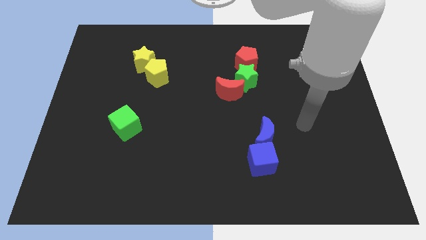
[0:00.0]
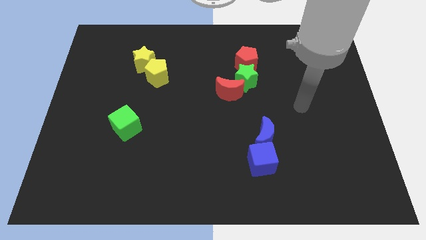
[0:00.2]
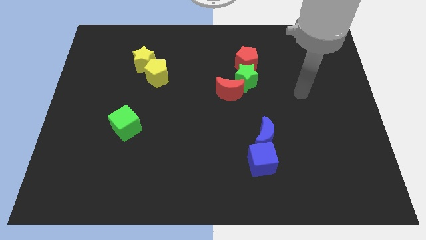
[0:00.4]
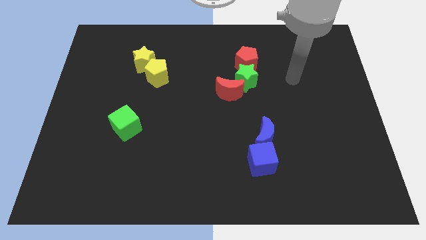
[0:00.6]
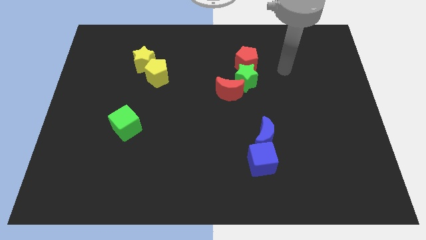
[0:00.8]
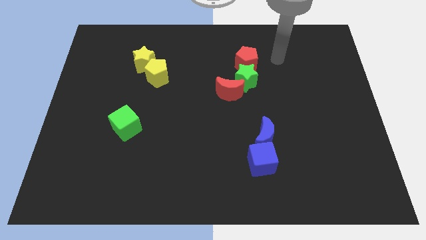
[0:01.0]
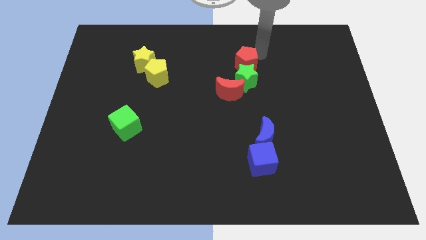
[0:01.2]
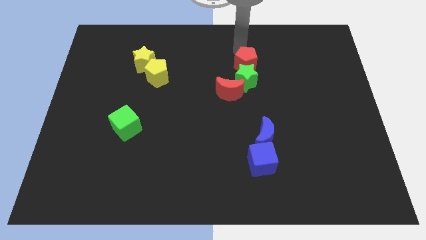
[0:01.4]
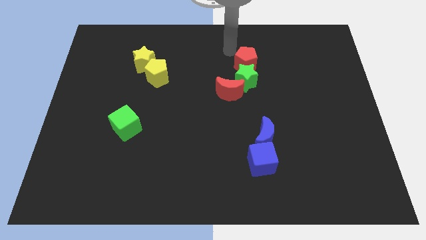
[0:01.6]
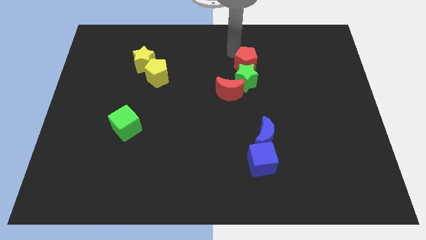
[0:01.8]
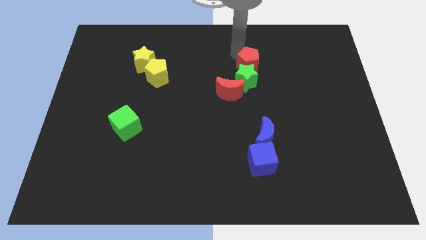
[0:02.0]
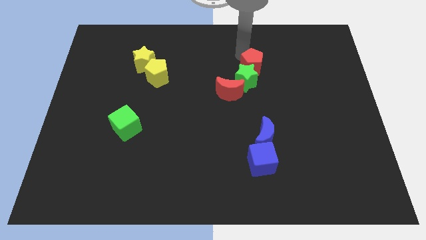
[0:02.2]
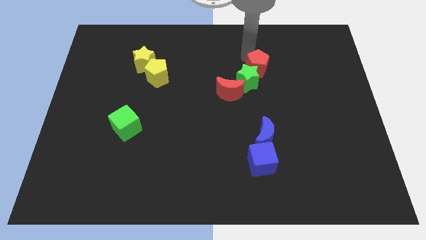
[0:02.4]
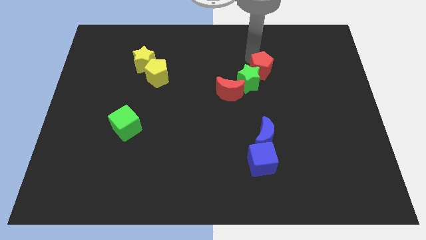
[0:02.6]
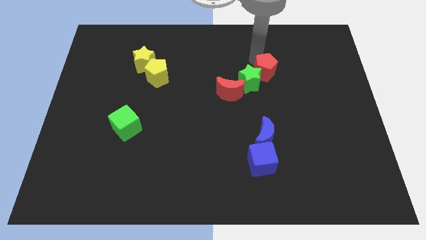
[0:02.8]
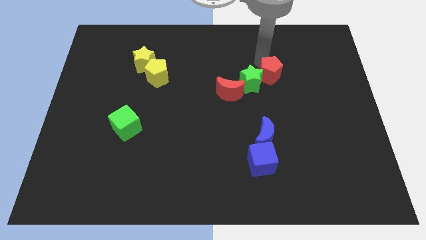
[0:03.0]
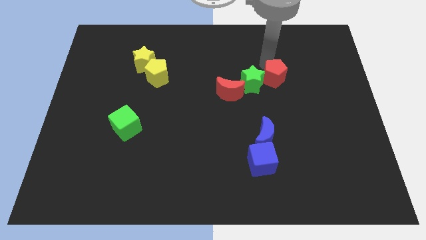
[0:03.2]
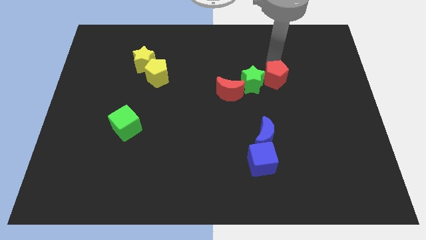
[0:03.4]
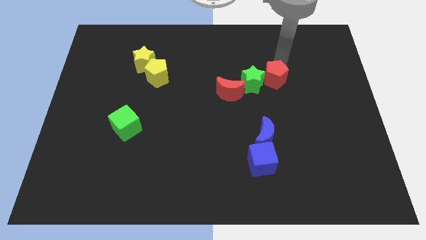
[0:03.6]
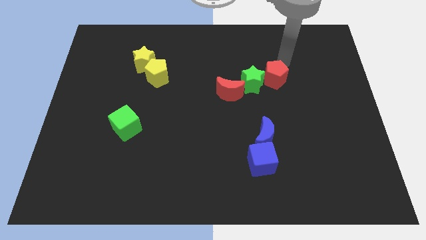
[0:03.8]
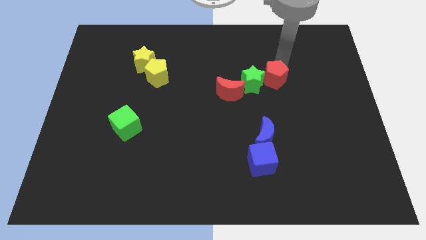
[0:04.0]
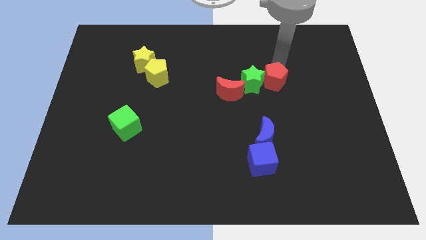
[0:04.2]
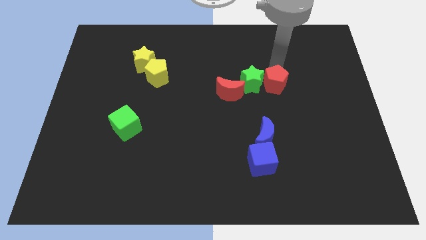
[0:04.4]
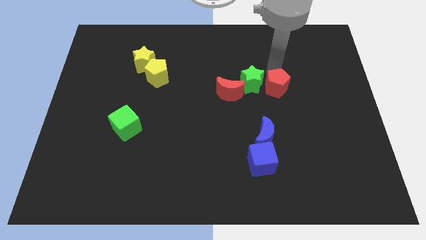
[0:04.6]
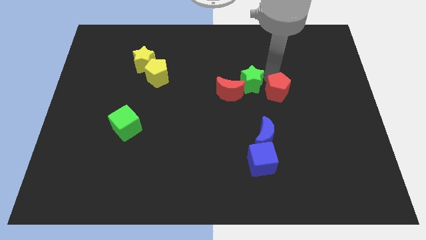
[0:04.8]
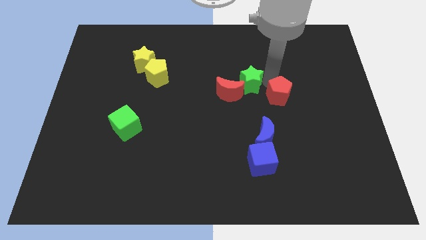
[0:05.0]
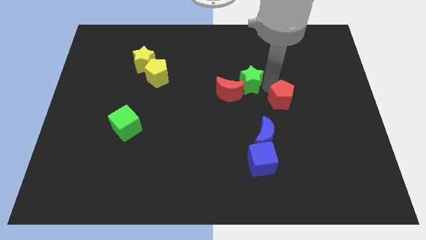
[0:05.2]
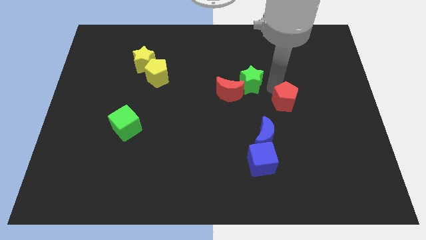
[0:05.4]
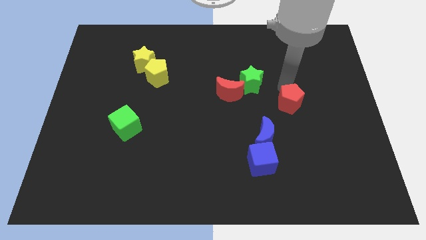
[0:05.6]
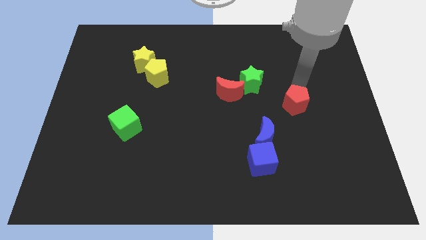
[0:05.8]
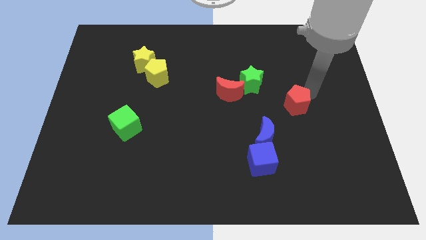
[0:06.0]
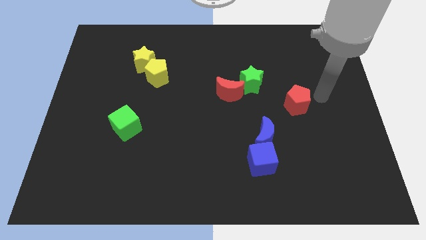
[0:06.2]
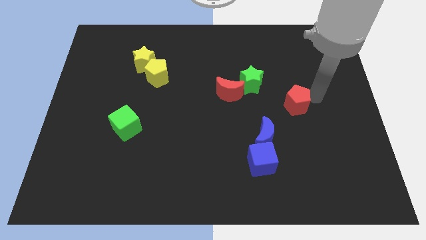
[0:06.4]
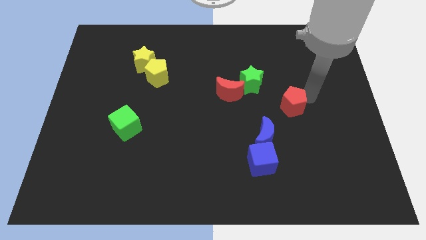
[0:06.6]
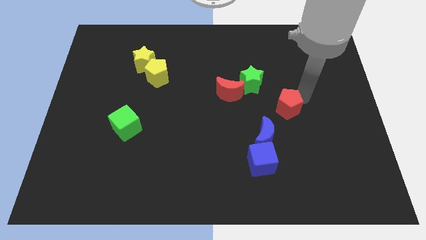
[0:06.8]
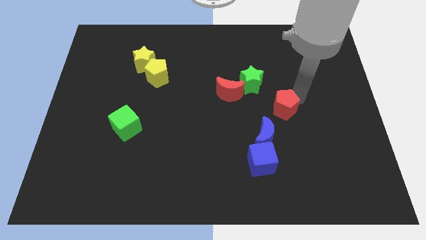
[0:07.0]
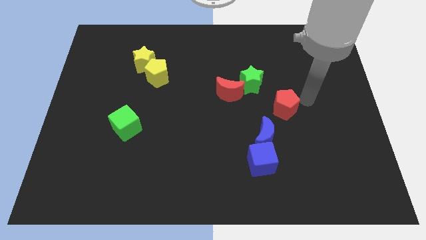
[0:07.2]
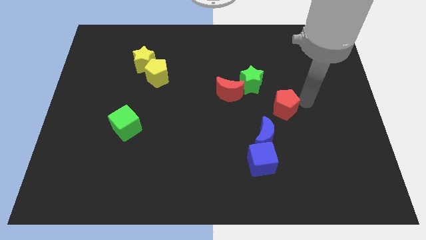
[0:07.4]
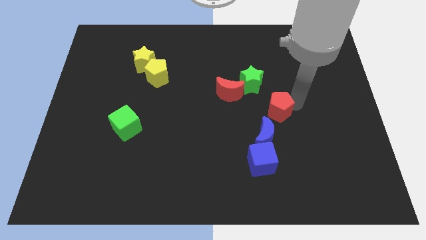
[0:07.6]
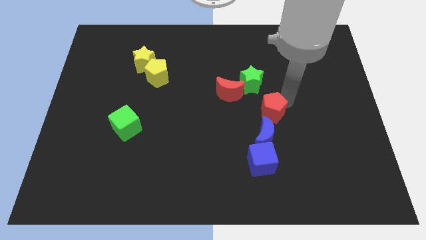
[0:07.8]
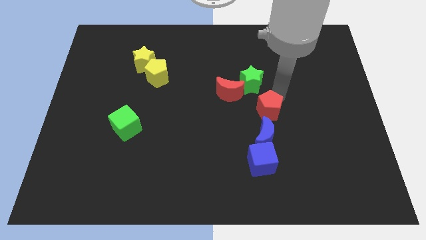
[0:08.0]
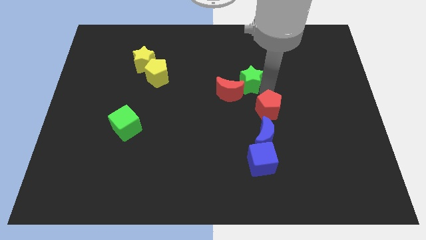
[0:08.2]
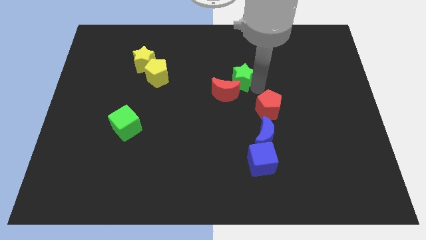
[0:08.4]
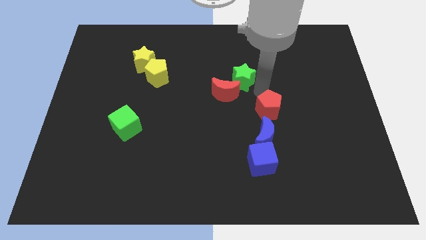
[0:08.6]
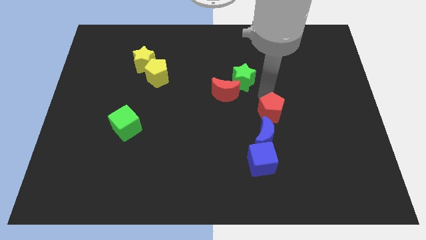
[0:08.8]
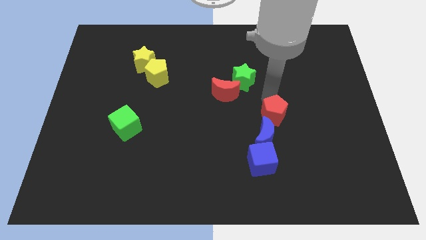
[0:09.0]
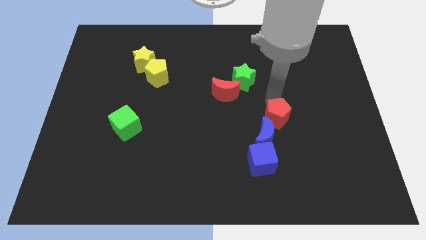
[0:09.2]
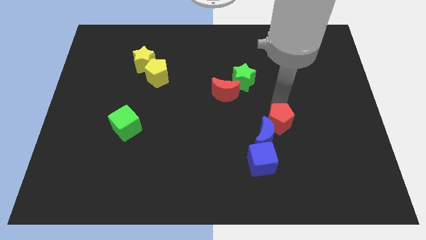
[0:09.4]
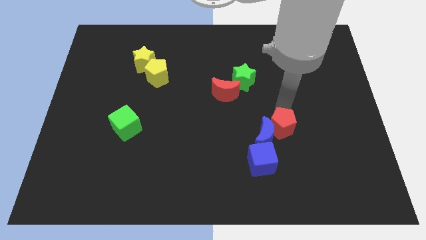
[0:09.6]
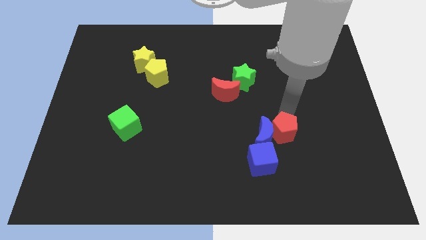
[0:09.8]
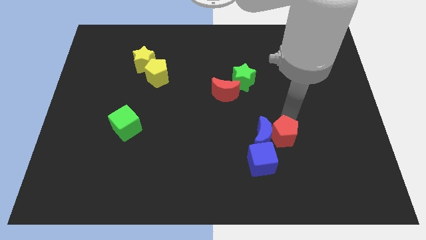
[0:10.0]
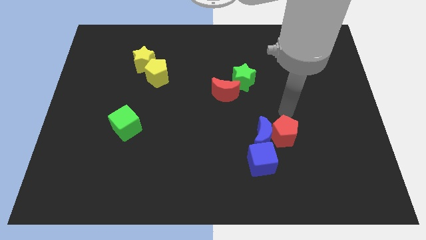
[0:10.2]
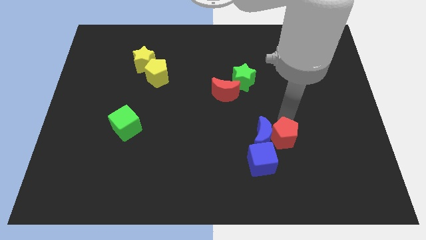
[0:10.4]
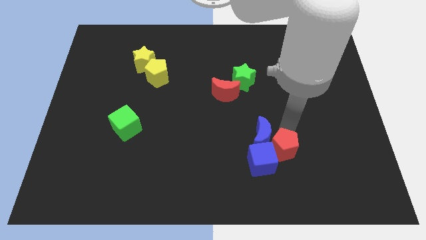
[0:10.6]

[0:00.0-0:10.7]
put the red pentagon towards the blue cube

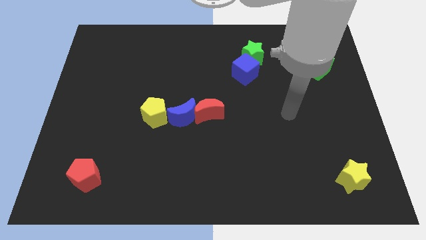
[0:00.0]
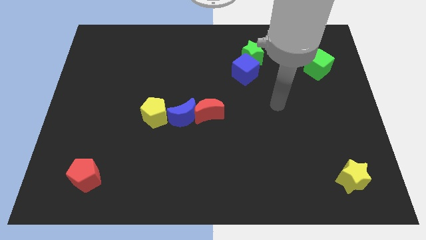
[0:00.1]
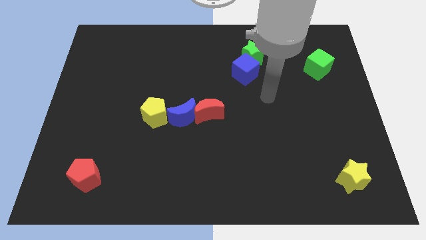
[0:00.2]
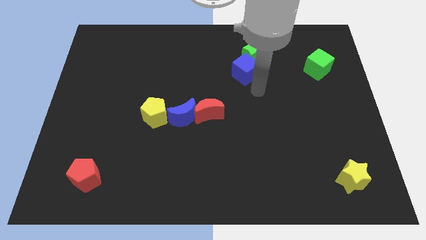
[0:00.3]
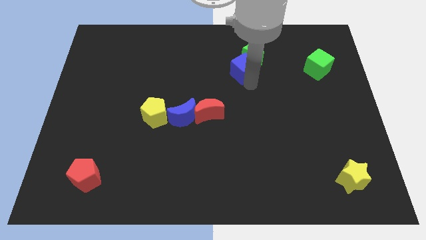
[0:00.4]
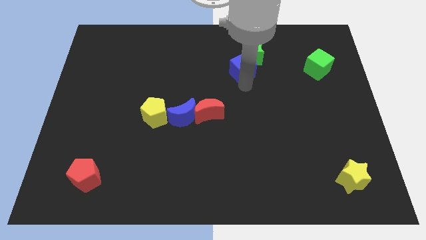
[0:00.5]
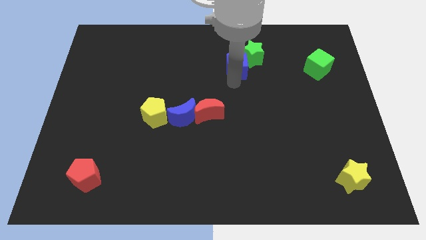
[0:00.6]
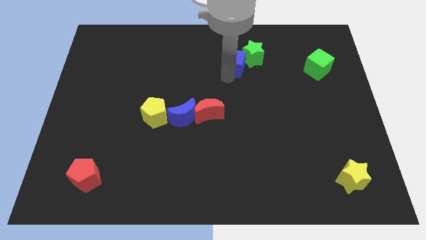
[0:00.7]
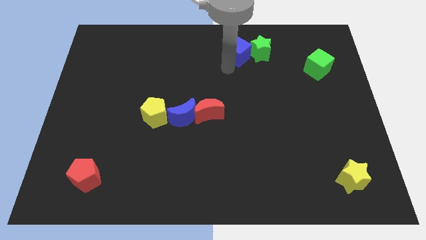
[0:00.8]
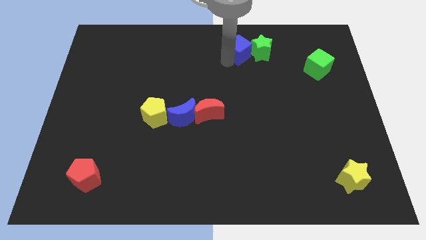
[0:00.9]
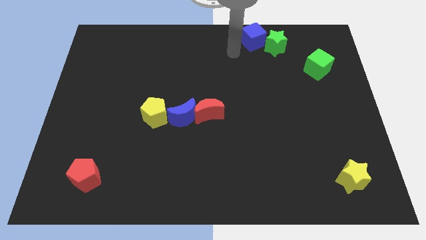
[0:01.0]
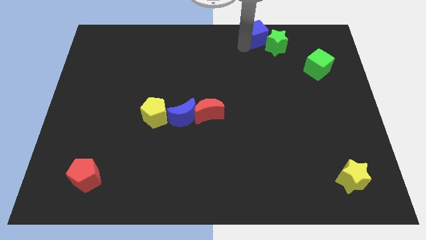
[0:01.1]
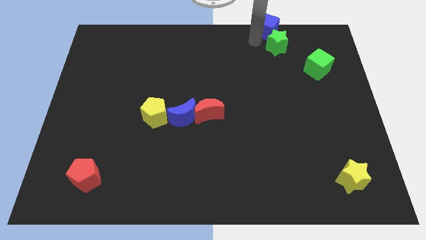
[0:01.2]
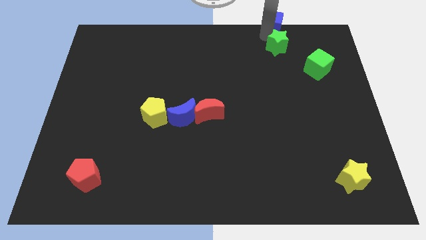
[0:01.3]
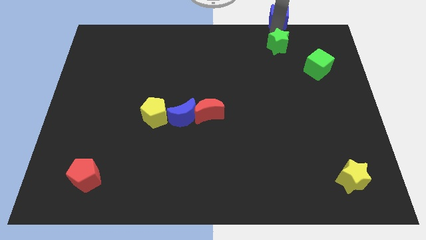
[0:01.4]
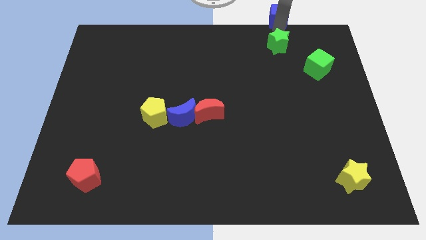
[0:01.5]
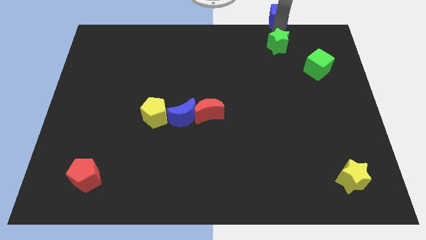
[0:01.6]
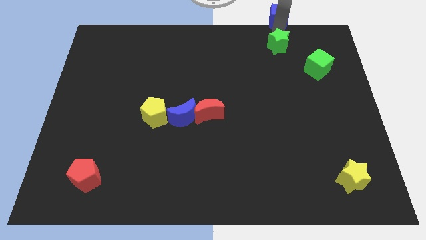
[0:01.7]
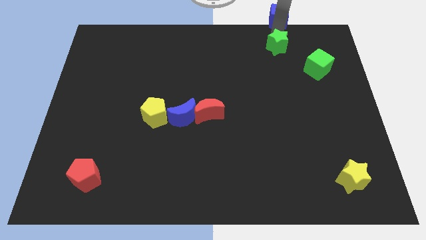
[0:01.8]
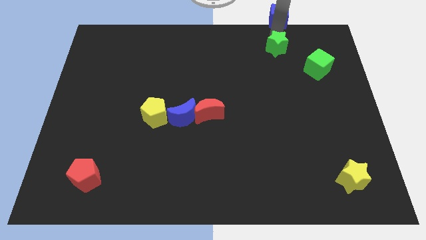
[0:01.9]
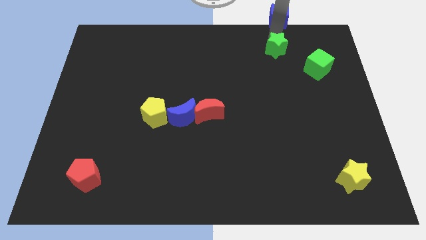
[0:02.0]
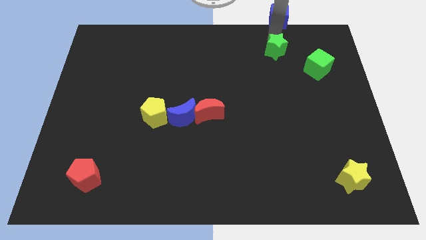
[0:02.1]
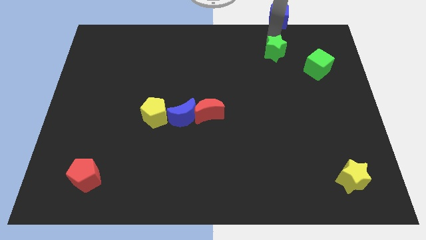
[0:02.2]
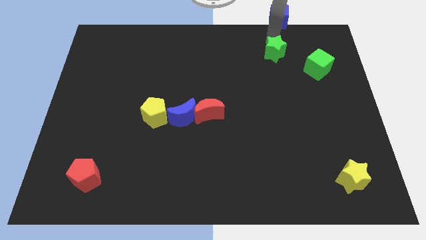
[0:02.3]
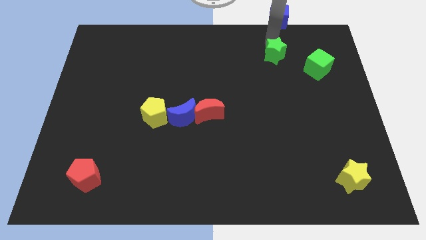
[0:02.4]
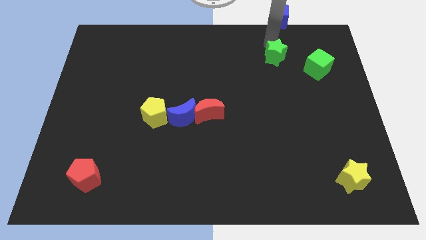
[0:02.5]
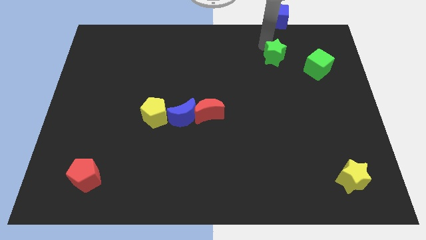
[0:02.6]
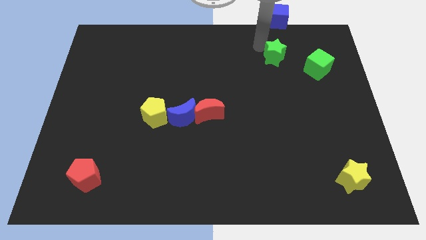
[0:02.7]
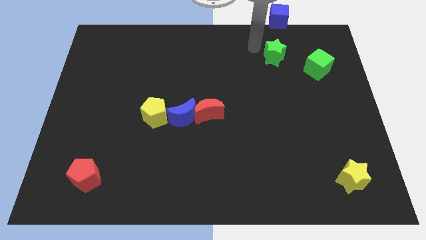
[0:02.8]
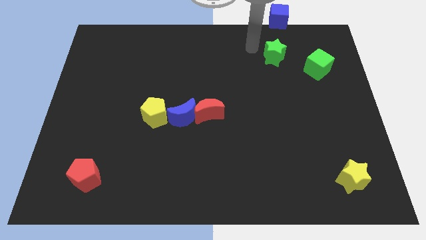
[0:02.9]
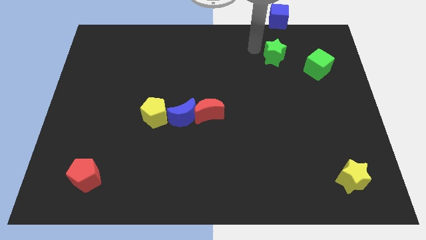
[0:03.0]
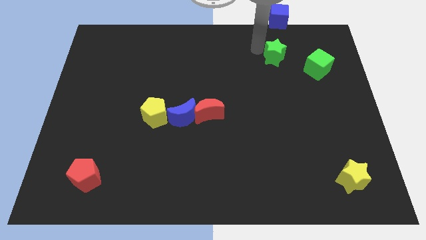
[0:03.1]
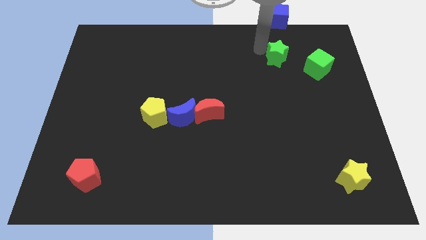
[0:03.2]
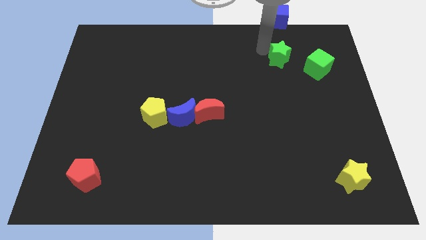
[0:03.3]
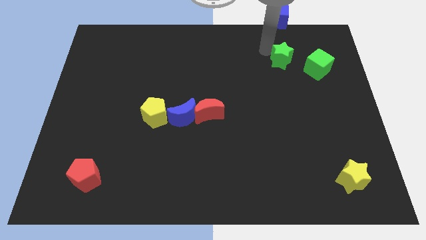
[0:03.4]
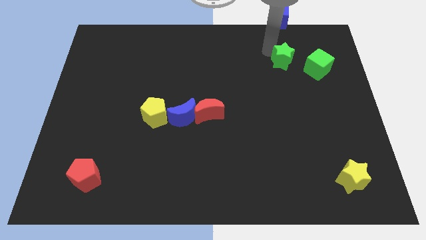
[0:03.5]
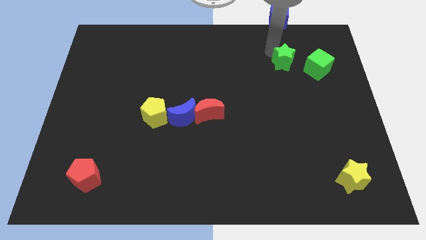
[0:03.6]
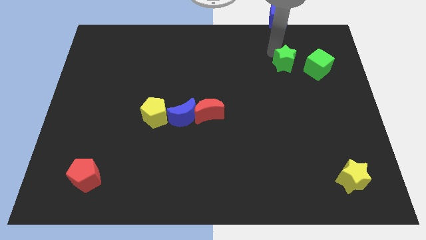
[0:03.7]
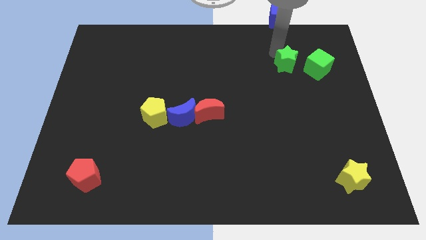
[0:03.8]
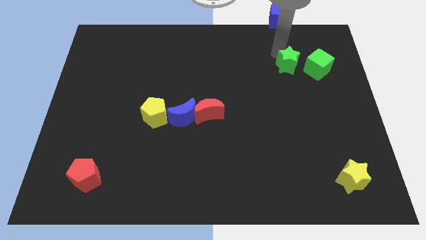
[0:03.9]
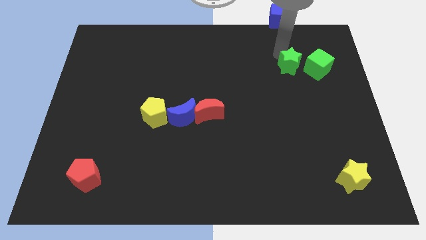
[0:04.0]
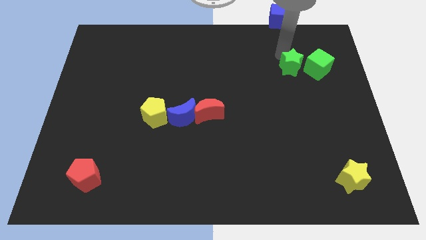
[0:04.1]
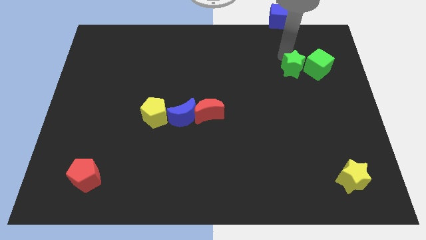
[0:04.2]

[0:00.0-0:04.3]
slide the green star to the green cube
